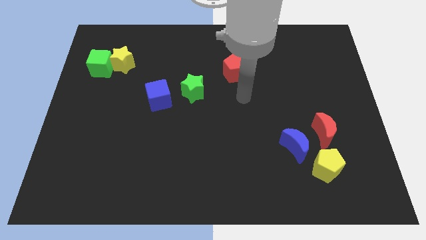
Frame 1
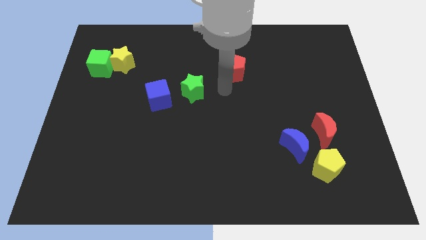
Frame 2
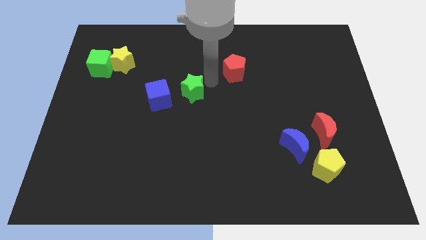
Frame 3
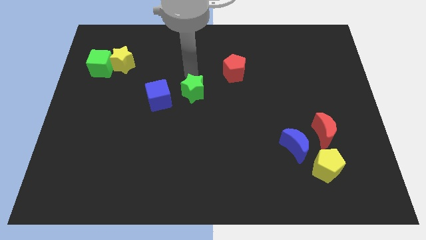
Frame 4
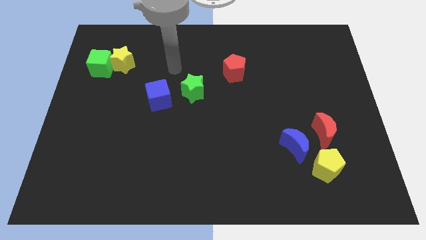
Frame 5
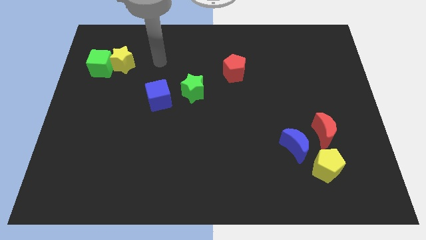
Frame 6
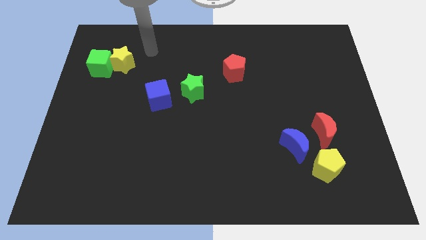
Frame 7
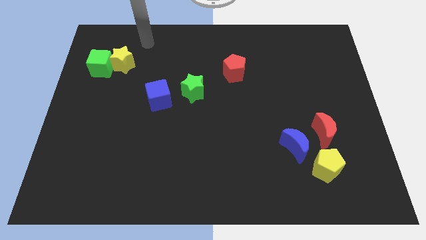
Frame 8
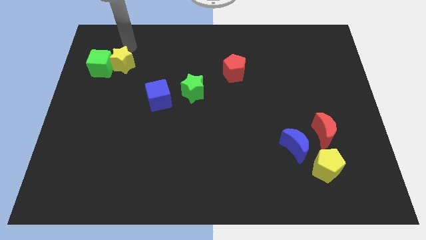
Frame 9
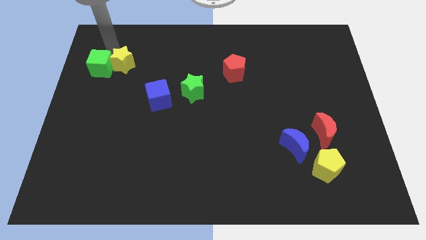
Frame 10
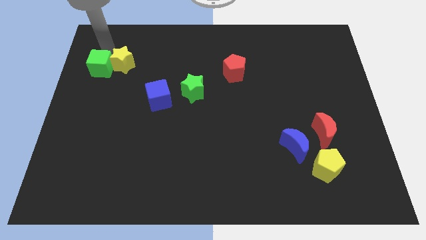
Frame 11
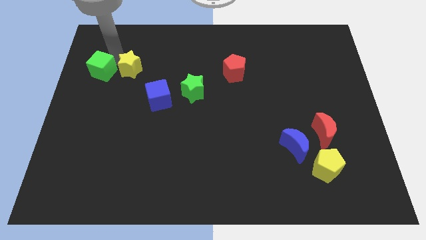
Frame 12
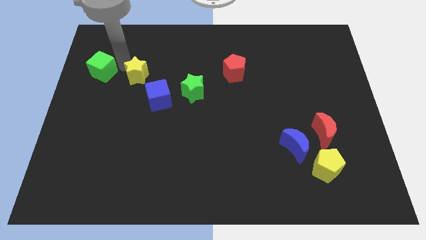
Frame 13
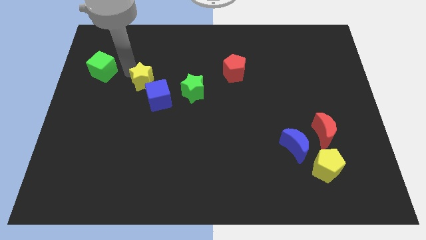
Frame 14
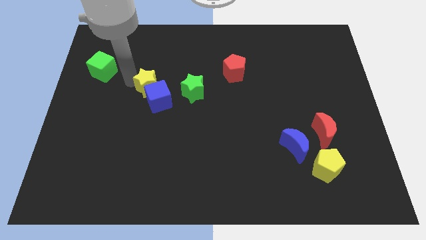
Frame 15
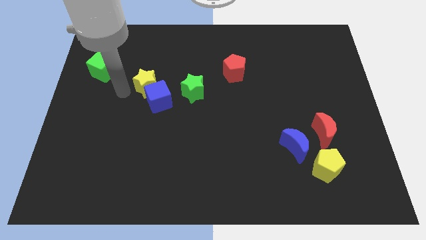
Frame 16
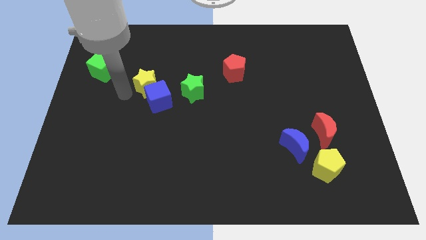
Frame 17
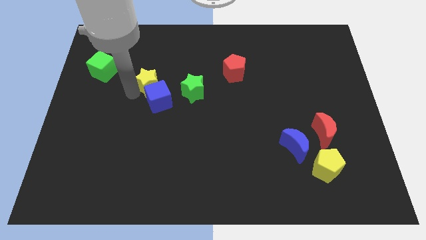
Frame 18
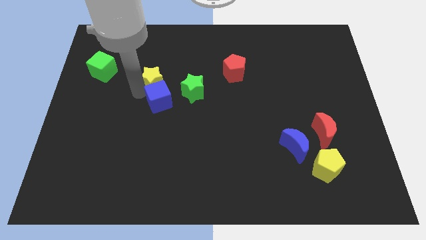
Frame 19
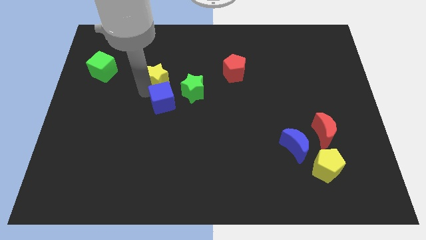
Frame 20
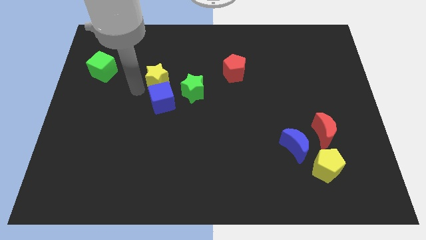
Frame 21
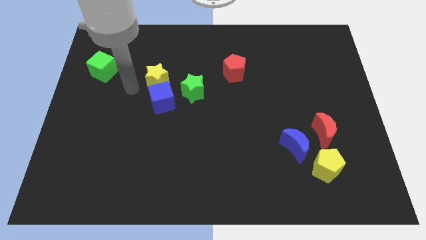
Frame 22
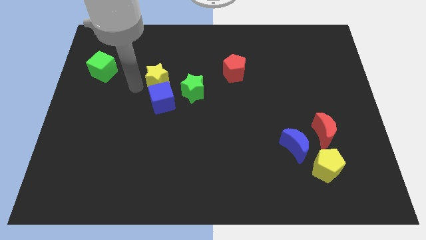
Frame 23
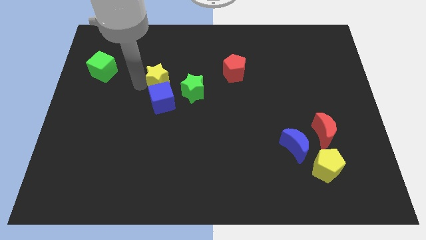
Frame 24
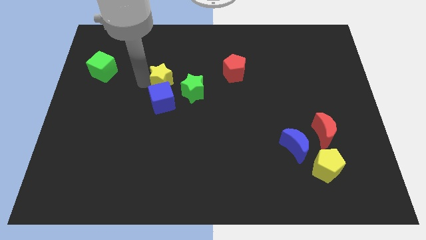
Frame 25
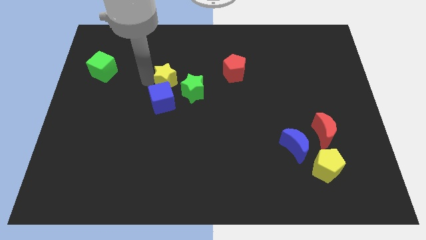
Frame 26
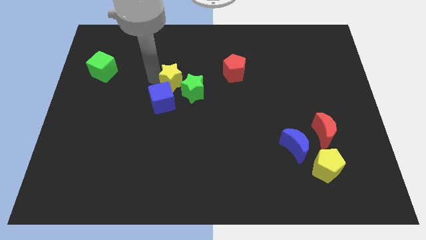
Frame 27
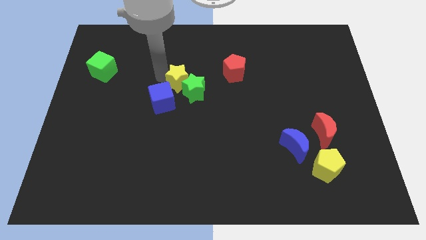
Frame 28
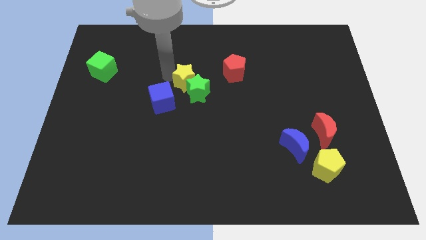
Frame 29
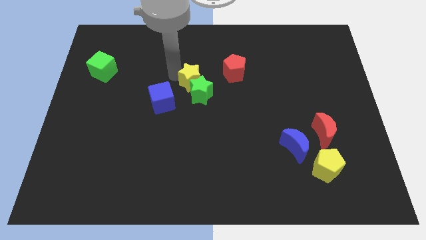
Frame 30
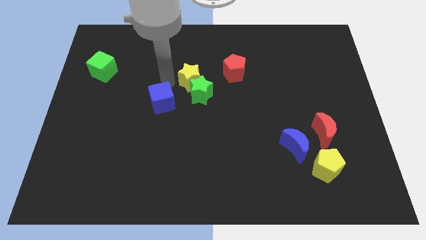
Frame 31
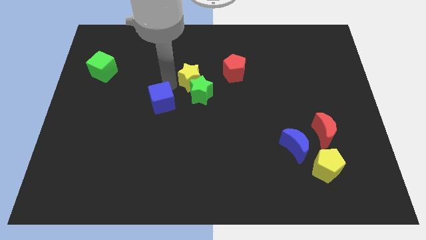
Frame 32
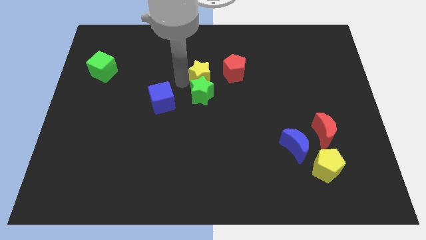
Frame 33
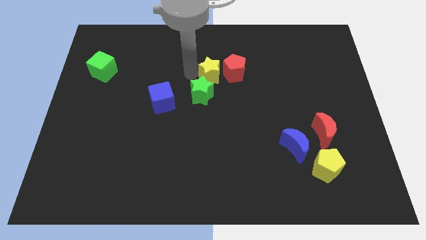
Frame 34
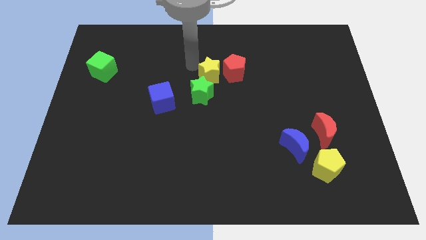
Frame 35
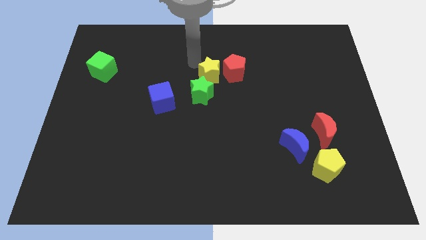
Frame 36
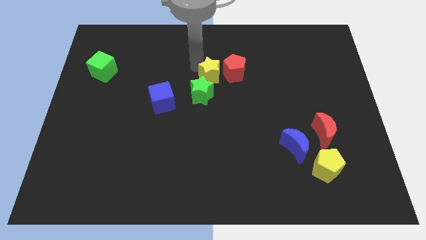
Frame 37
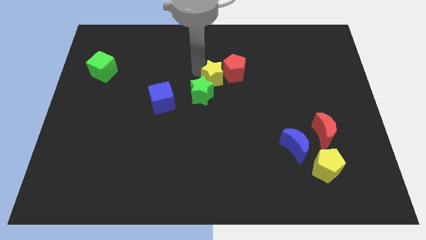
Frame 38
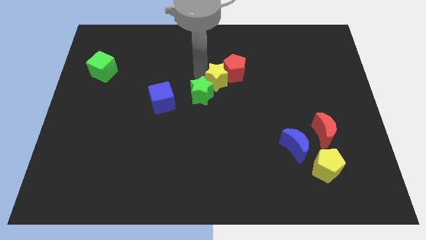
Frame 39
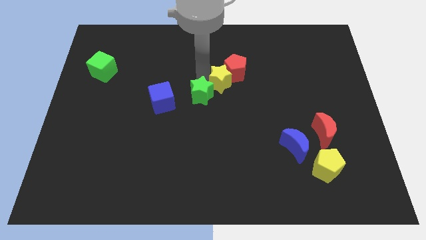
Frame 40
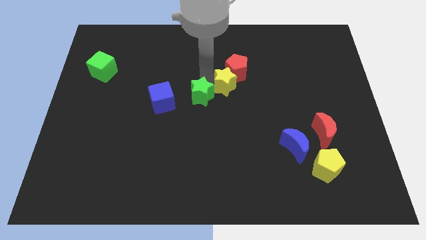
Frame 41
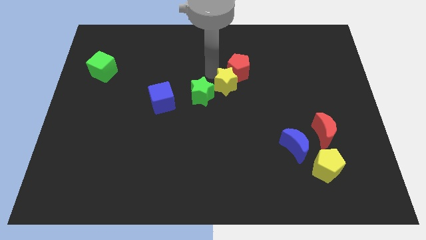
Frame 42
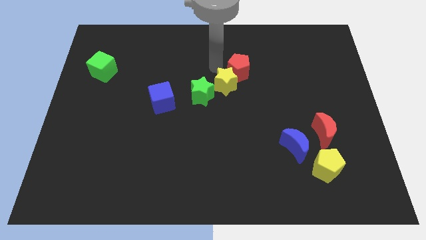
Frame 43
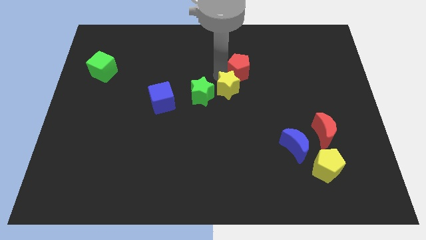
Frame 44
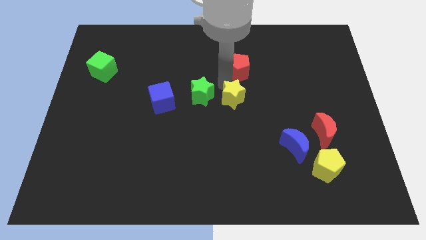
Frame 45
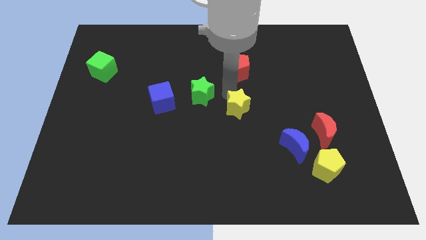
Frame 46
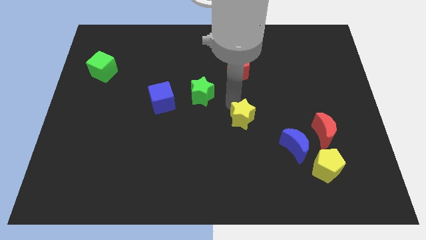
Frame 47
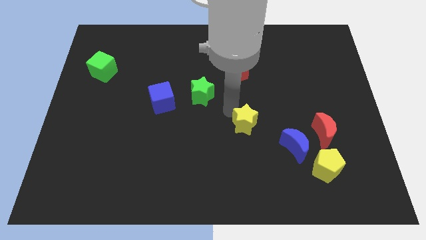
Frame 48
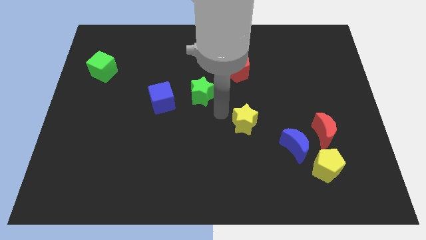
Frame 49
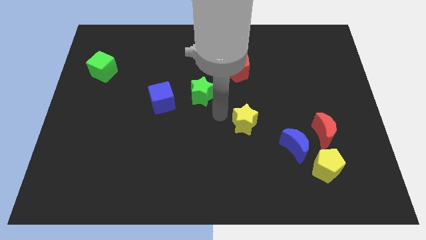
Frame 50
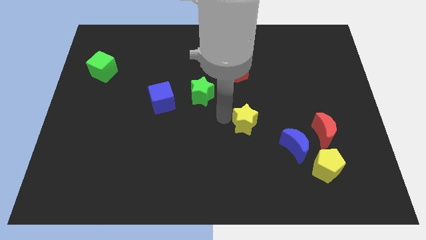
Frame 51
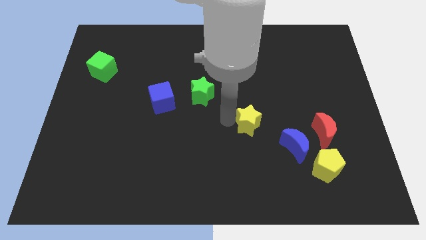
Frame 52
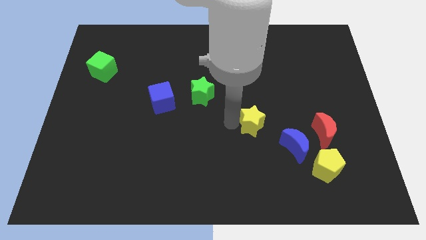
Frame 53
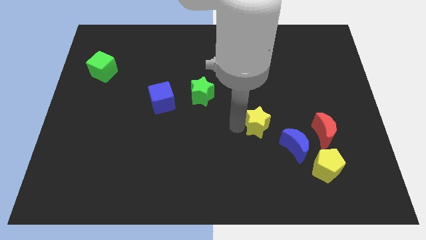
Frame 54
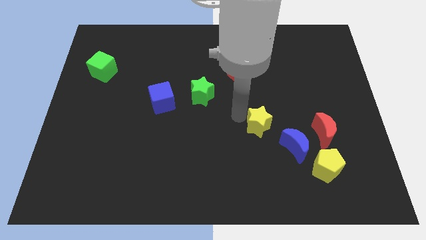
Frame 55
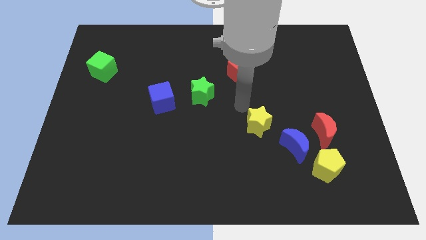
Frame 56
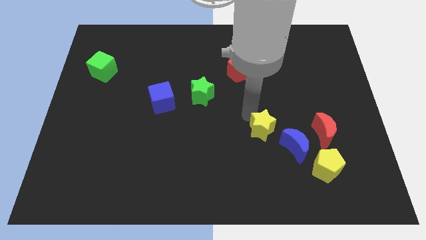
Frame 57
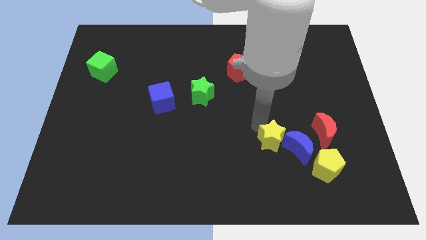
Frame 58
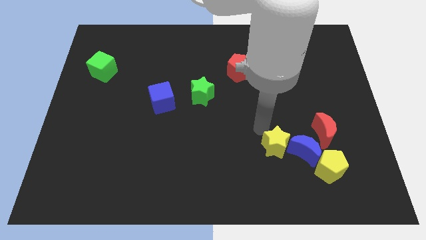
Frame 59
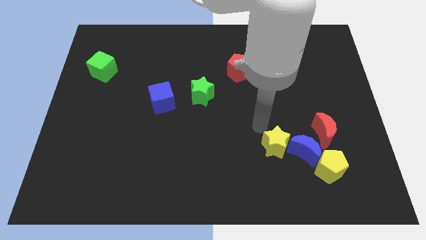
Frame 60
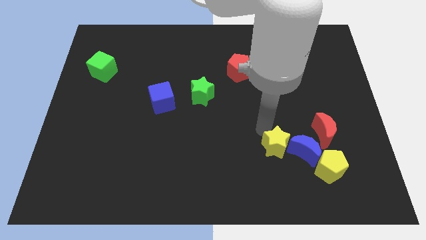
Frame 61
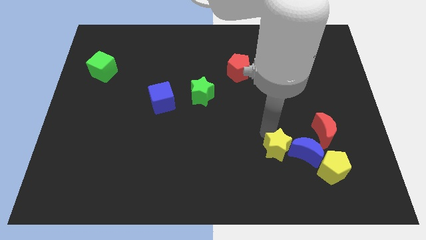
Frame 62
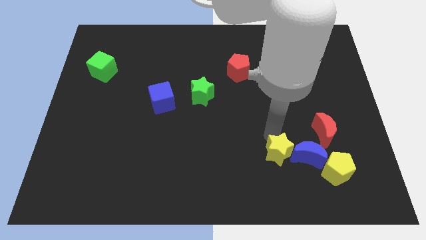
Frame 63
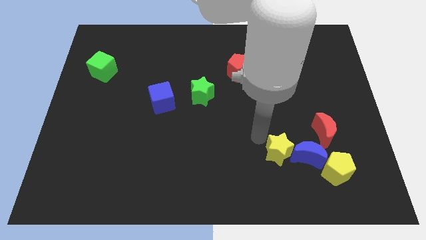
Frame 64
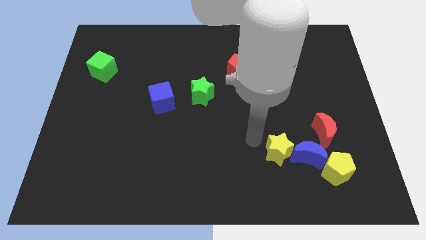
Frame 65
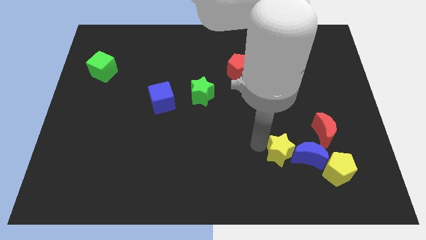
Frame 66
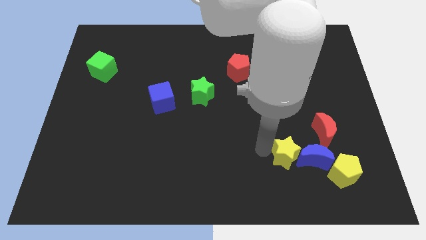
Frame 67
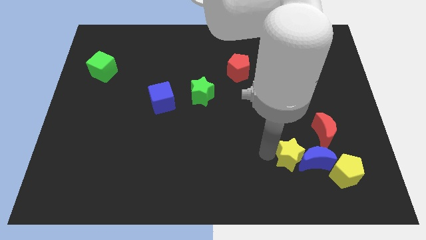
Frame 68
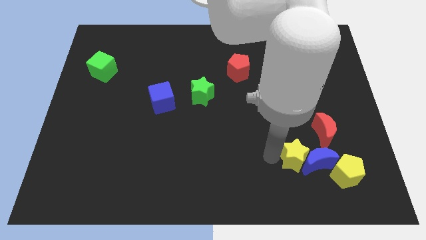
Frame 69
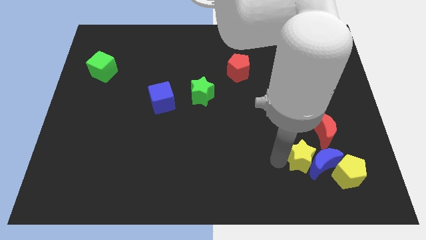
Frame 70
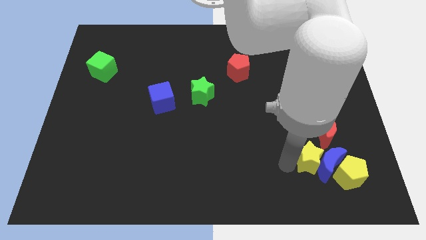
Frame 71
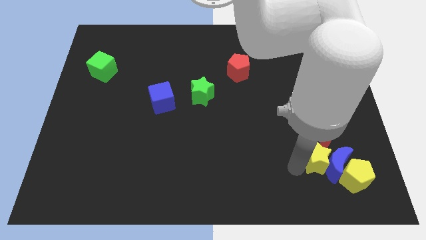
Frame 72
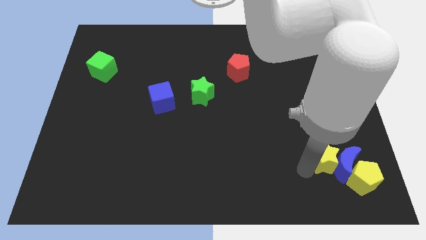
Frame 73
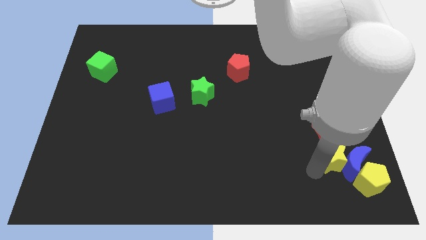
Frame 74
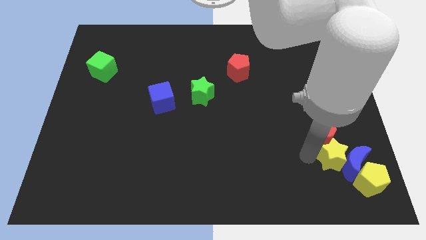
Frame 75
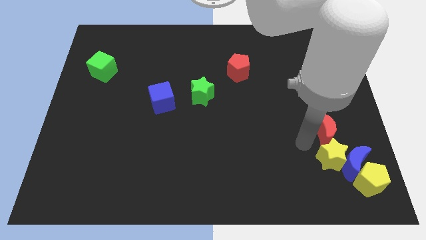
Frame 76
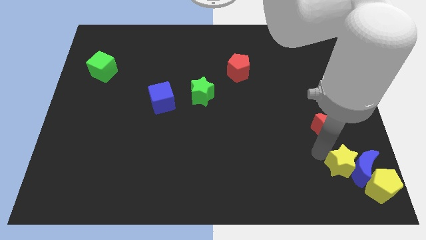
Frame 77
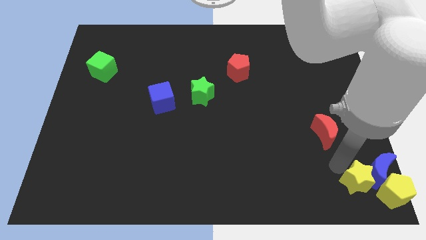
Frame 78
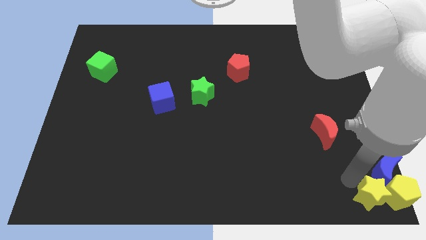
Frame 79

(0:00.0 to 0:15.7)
move the yellow star close to the yellow pentagon
